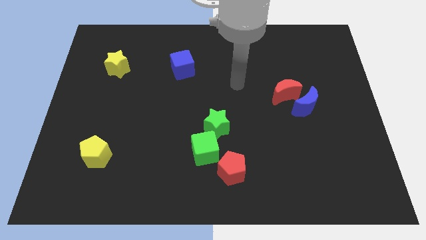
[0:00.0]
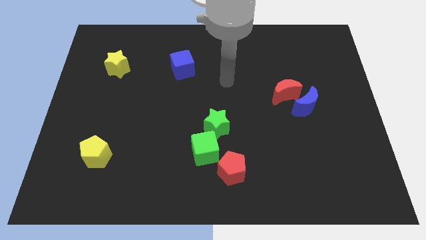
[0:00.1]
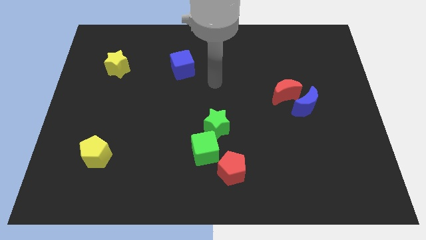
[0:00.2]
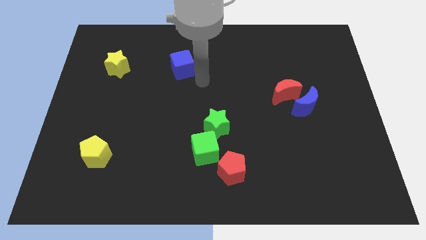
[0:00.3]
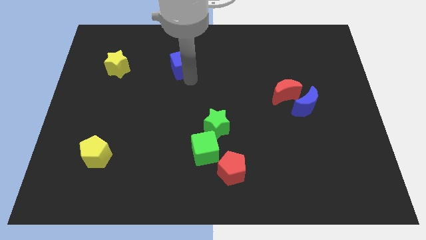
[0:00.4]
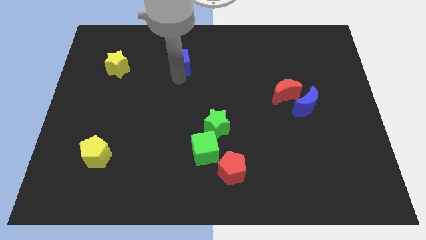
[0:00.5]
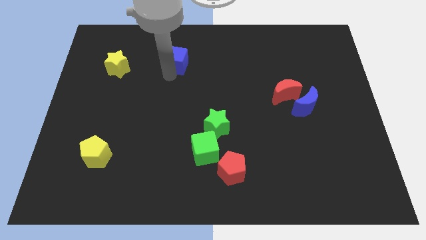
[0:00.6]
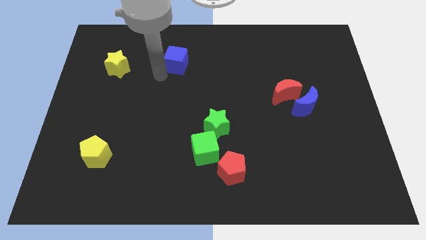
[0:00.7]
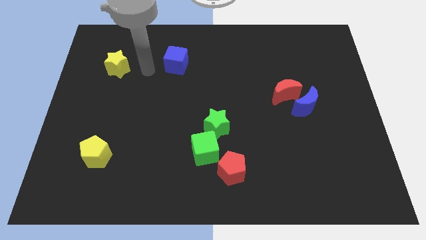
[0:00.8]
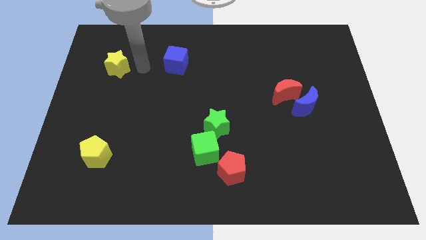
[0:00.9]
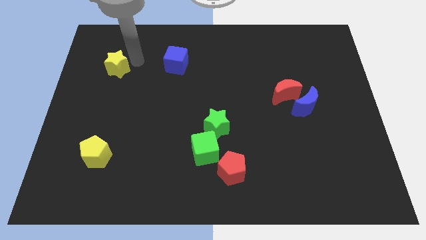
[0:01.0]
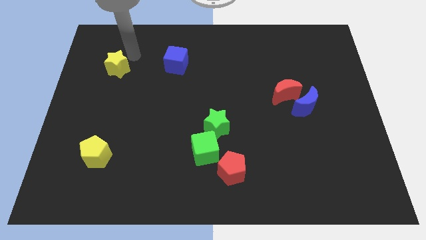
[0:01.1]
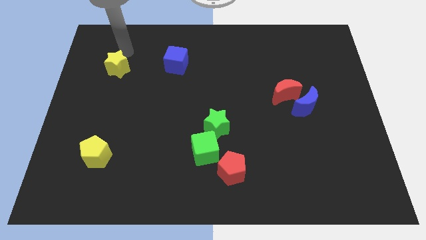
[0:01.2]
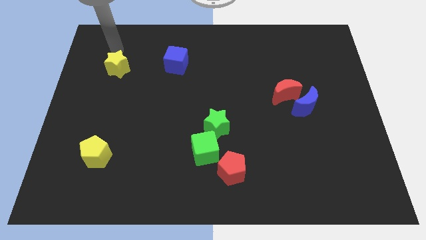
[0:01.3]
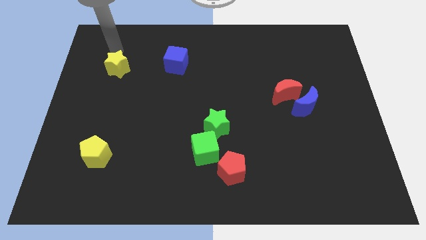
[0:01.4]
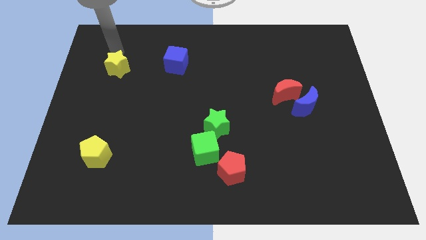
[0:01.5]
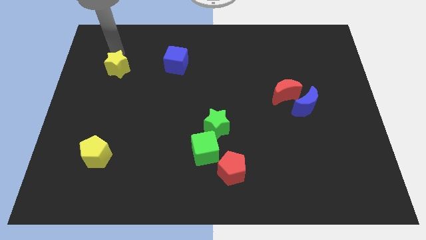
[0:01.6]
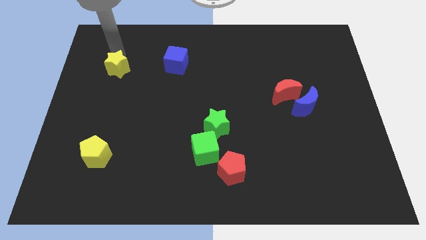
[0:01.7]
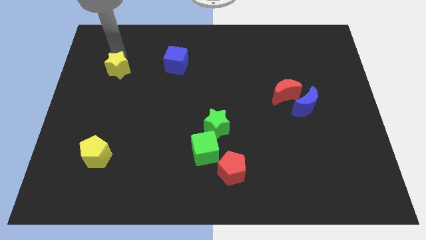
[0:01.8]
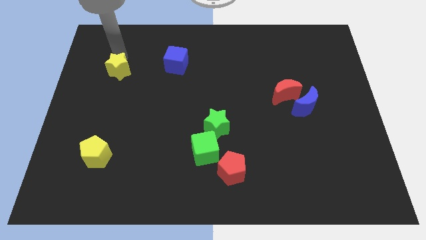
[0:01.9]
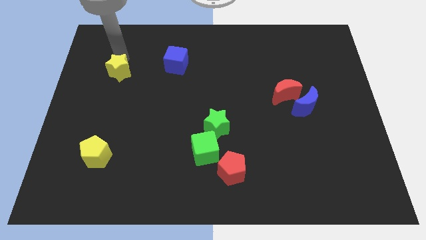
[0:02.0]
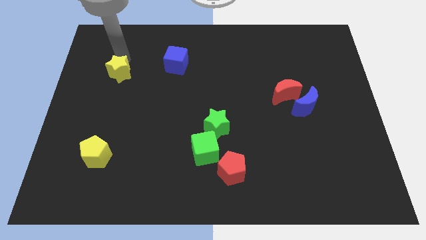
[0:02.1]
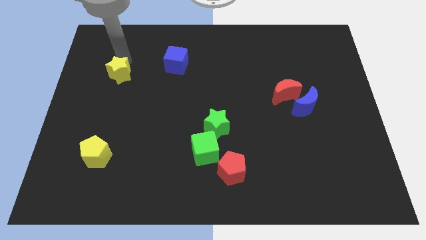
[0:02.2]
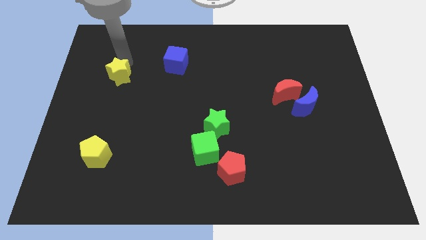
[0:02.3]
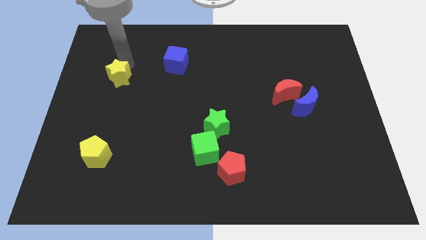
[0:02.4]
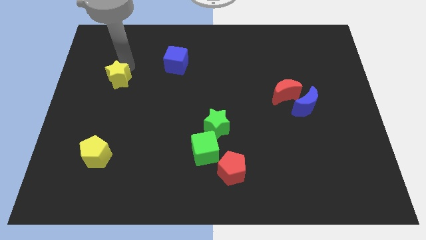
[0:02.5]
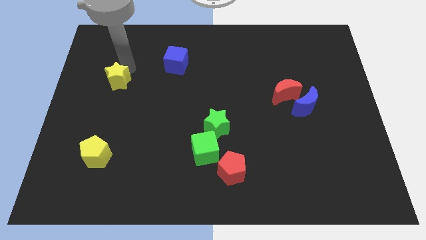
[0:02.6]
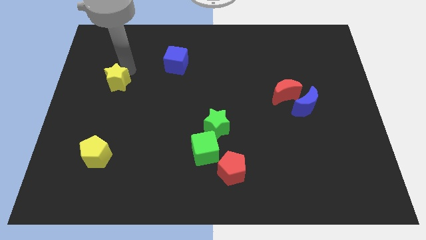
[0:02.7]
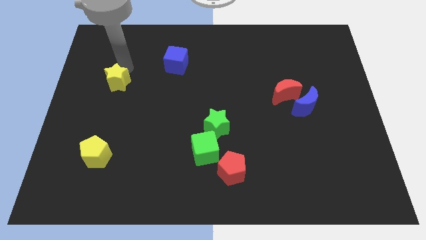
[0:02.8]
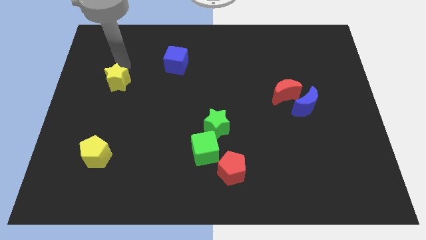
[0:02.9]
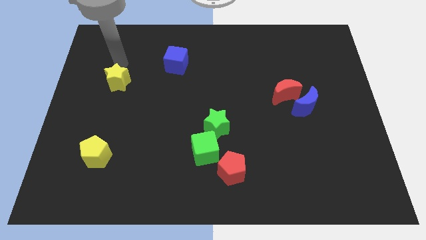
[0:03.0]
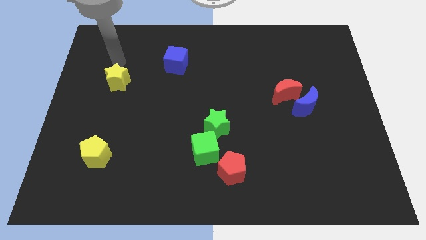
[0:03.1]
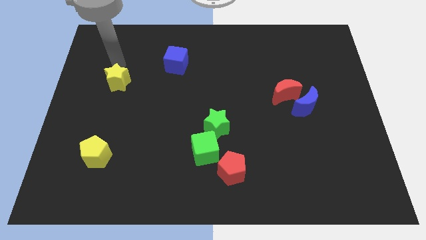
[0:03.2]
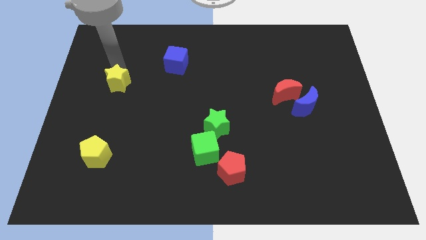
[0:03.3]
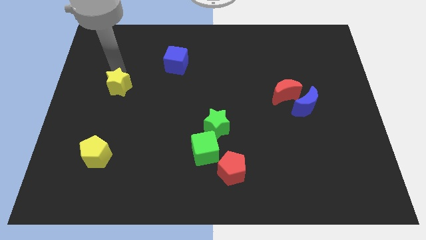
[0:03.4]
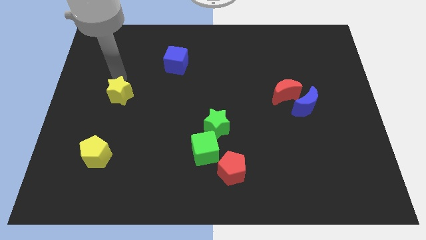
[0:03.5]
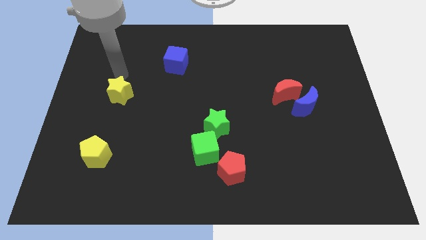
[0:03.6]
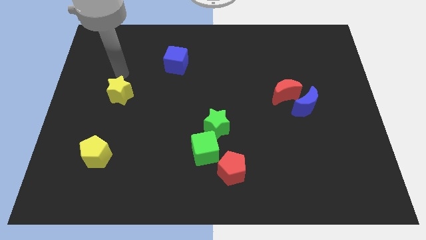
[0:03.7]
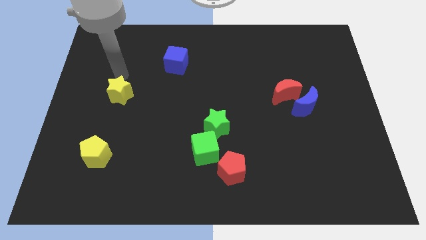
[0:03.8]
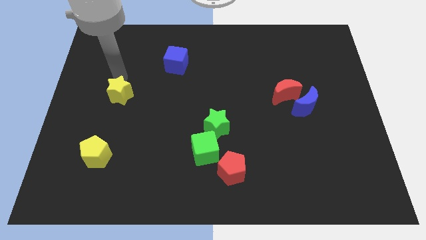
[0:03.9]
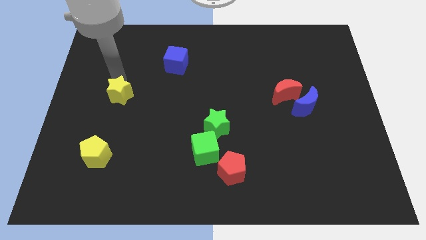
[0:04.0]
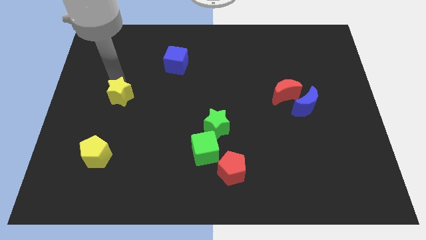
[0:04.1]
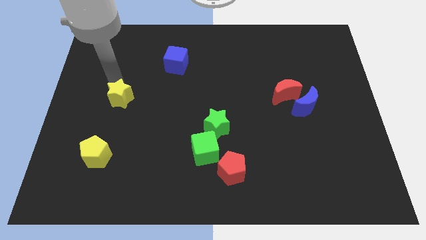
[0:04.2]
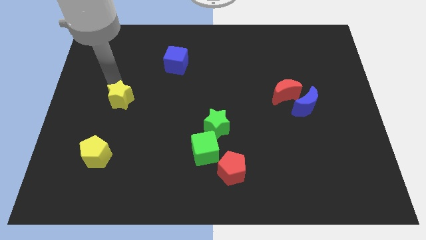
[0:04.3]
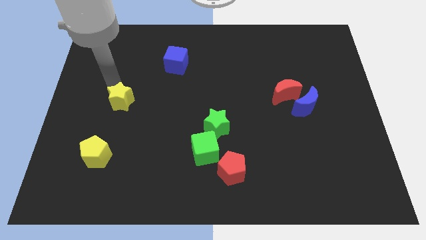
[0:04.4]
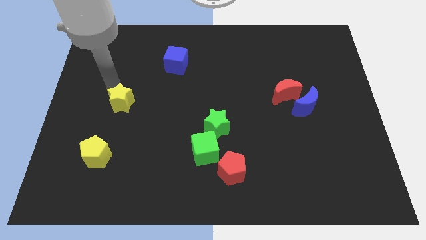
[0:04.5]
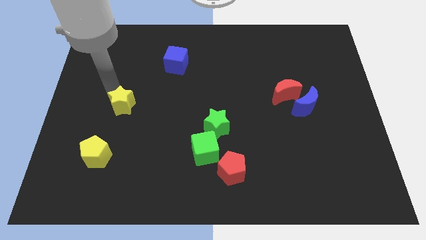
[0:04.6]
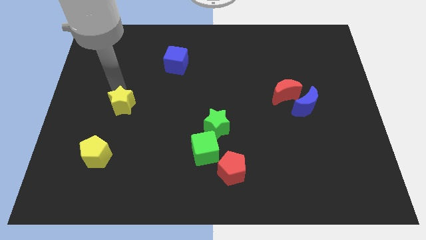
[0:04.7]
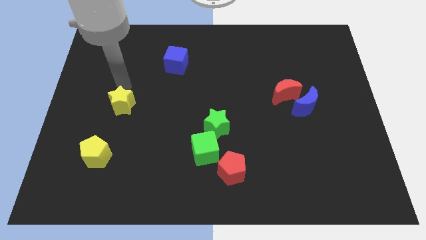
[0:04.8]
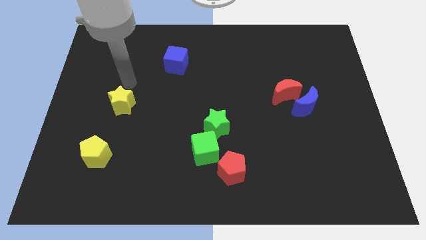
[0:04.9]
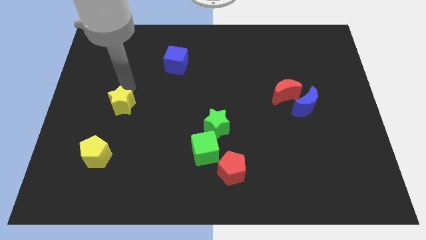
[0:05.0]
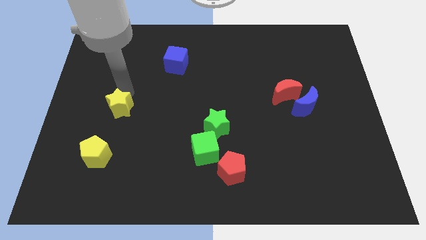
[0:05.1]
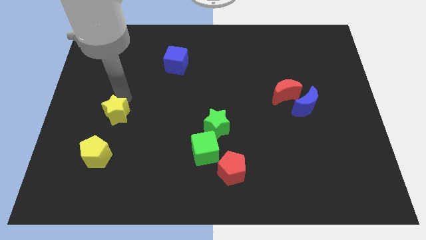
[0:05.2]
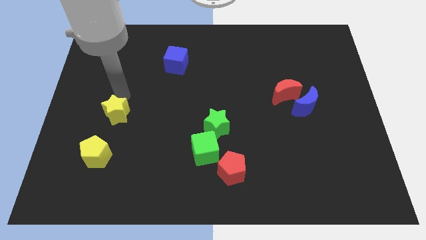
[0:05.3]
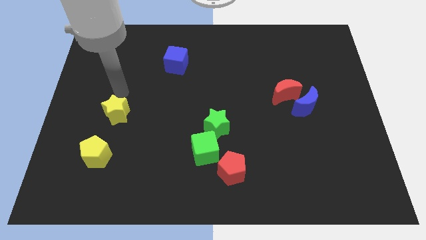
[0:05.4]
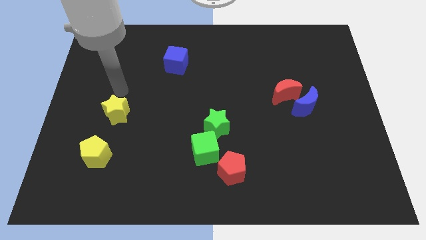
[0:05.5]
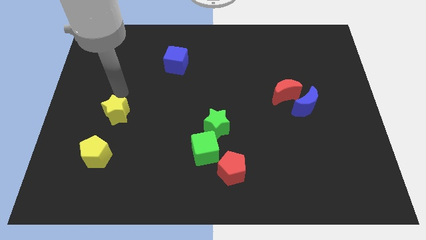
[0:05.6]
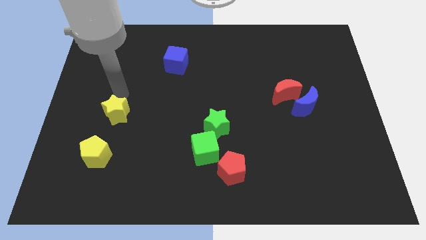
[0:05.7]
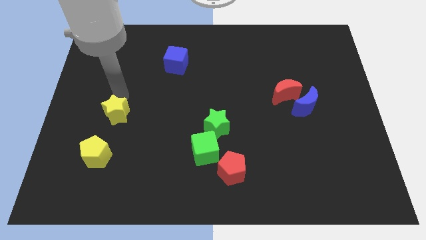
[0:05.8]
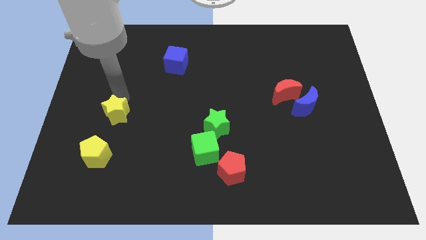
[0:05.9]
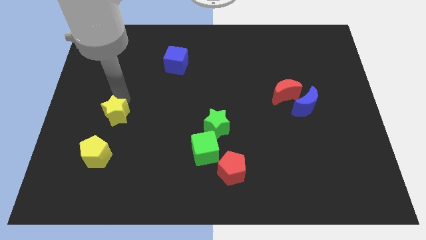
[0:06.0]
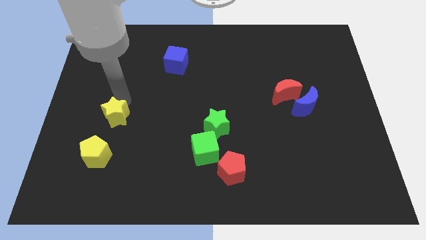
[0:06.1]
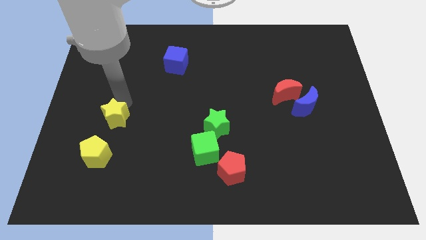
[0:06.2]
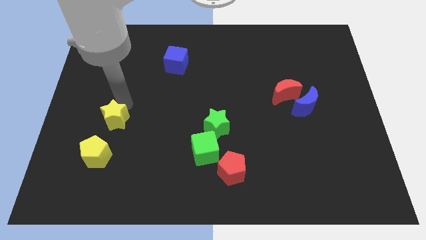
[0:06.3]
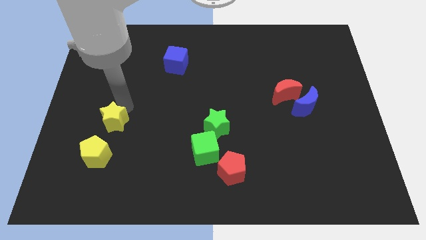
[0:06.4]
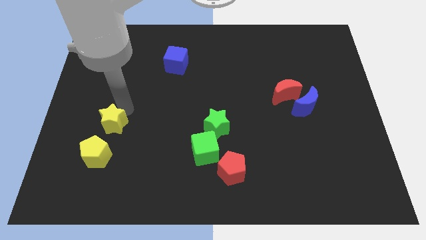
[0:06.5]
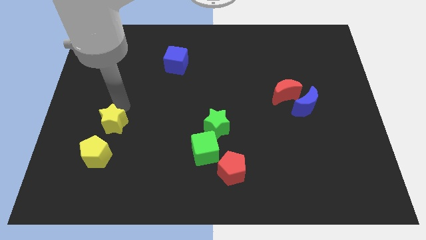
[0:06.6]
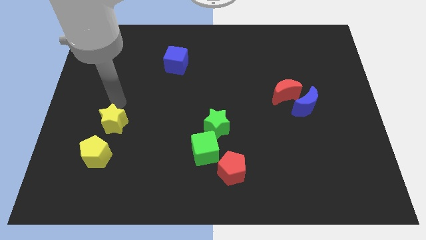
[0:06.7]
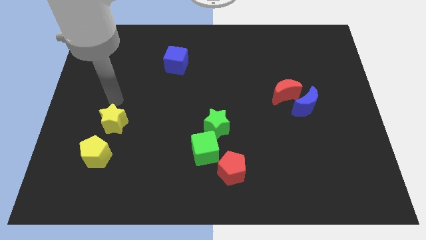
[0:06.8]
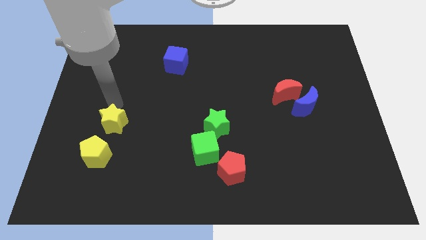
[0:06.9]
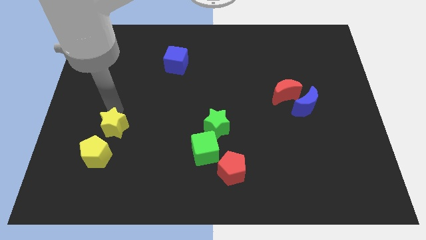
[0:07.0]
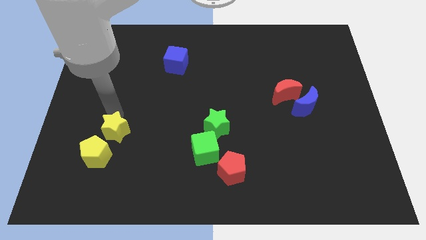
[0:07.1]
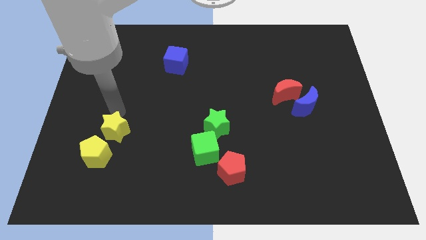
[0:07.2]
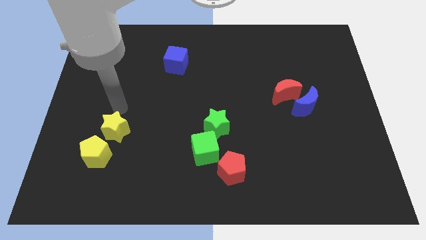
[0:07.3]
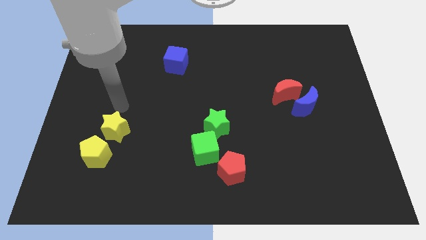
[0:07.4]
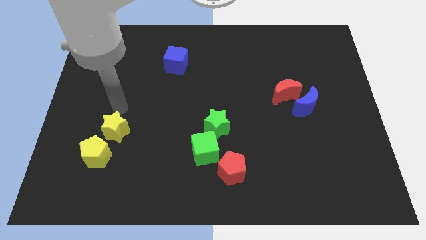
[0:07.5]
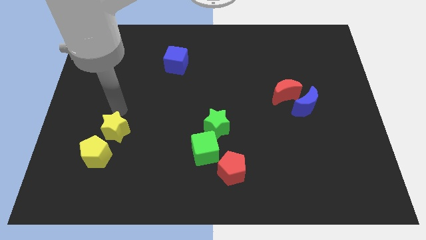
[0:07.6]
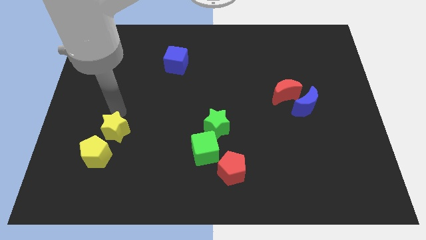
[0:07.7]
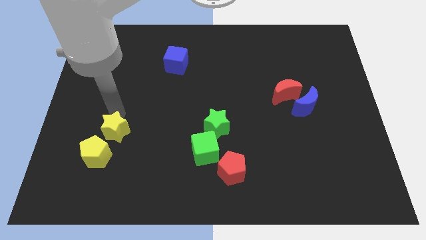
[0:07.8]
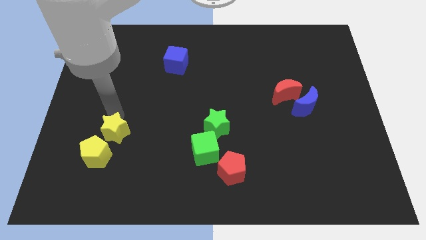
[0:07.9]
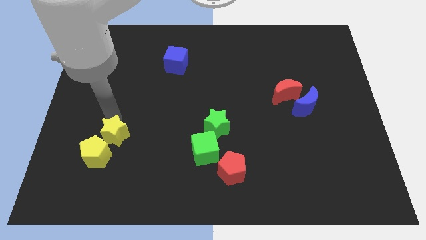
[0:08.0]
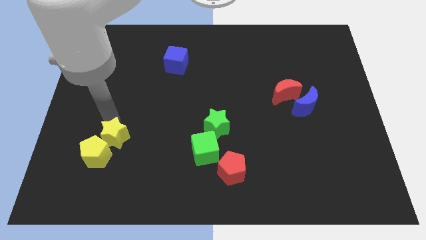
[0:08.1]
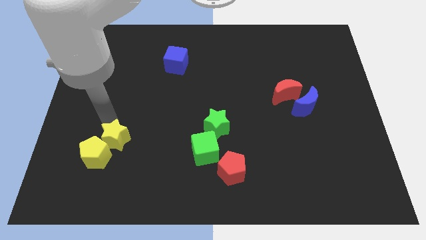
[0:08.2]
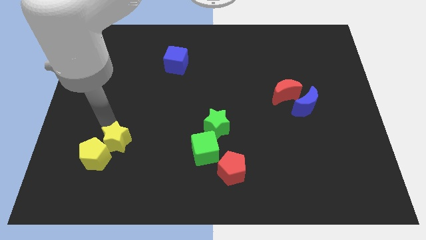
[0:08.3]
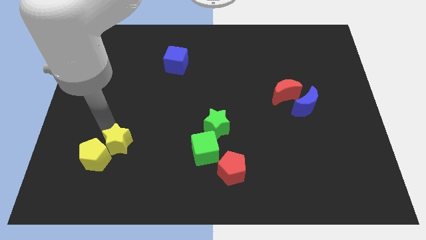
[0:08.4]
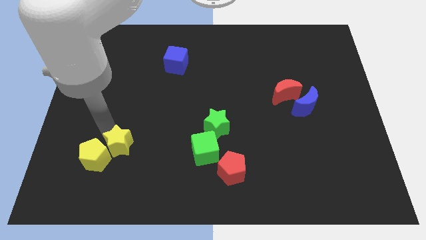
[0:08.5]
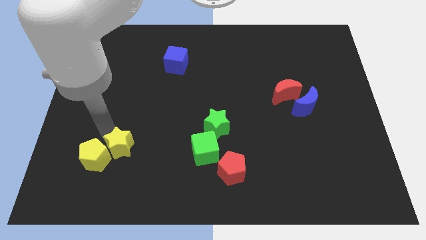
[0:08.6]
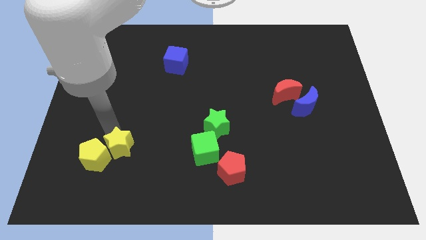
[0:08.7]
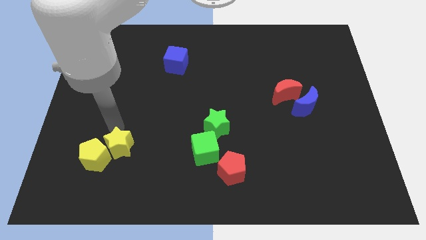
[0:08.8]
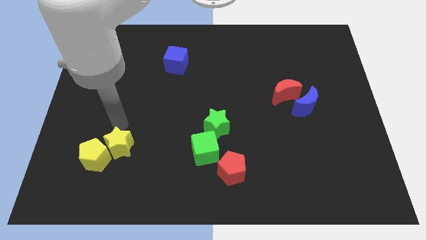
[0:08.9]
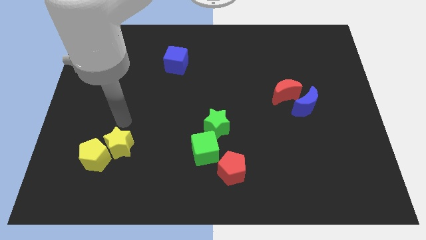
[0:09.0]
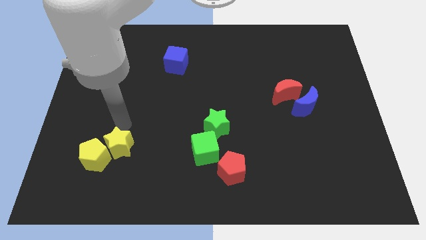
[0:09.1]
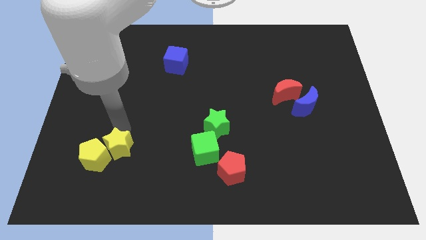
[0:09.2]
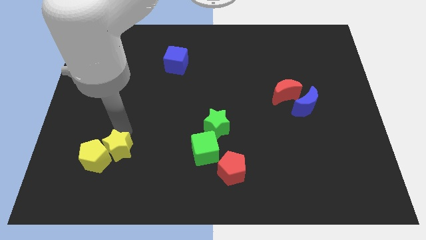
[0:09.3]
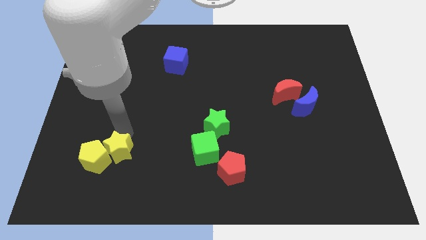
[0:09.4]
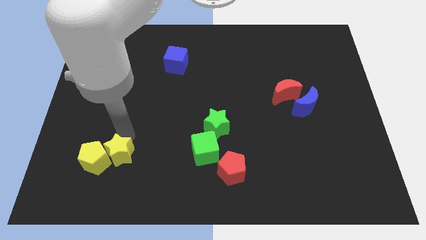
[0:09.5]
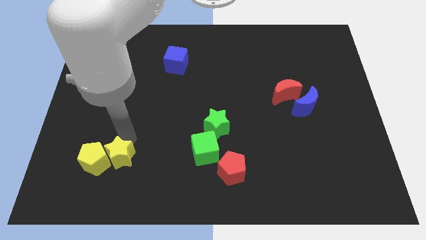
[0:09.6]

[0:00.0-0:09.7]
push the yellow star to the bottom right side of the yellow pentagon
